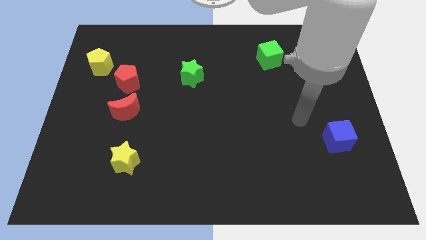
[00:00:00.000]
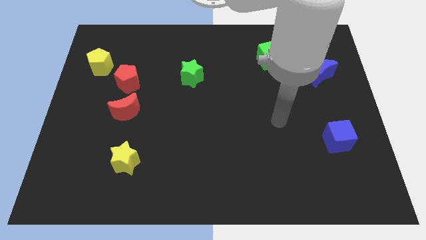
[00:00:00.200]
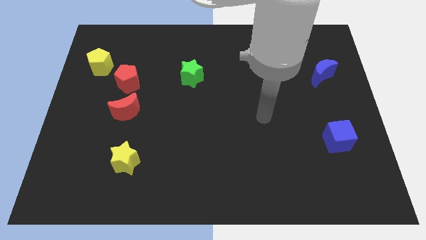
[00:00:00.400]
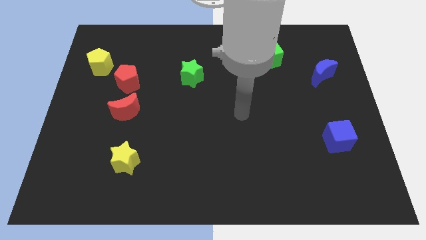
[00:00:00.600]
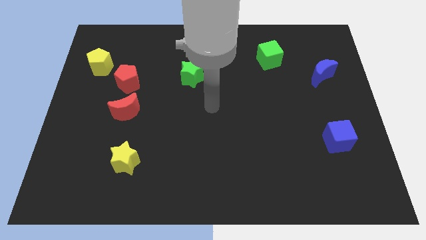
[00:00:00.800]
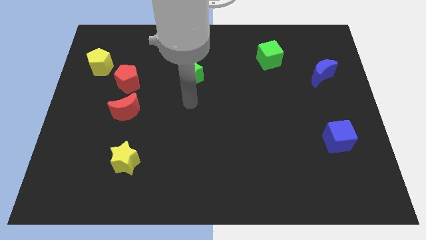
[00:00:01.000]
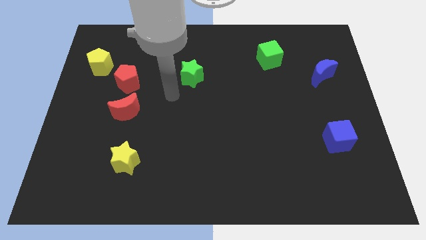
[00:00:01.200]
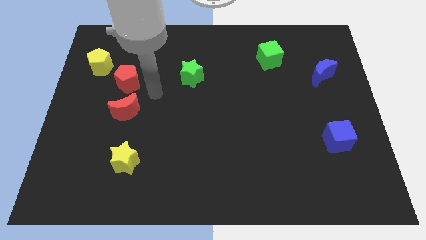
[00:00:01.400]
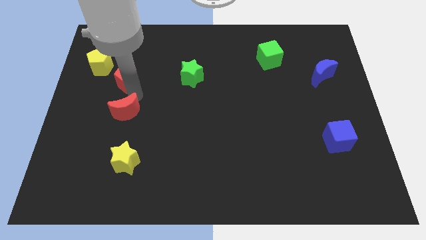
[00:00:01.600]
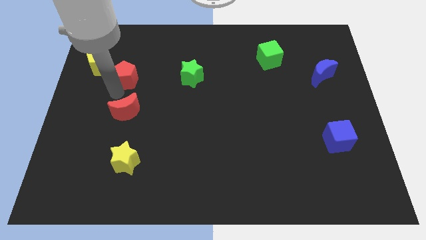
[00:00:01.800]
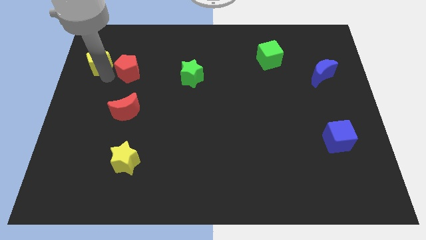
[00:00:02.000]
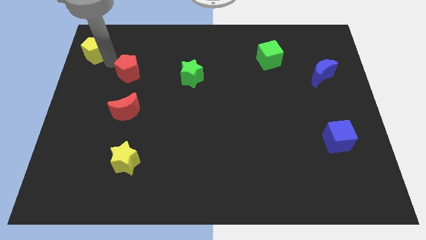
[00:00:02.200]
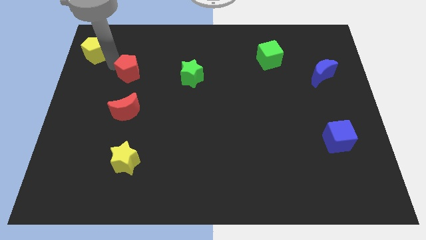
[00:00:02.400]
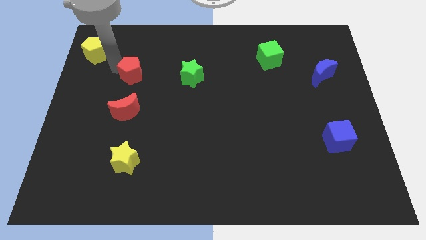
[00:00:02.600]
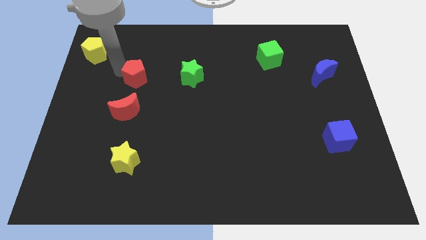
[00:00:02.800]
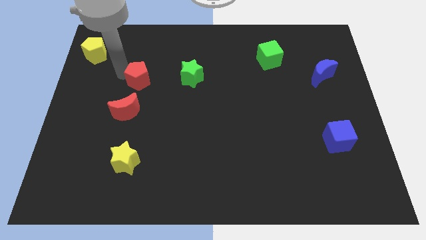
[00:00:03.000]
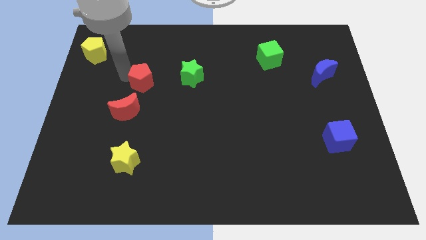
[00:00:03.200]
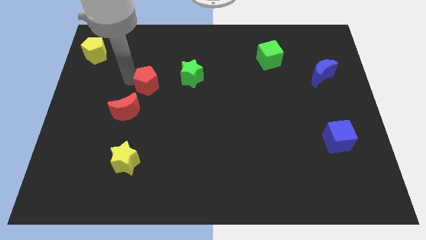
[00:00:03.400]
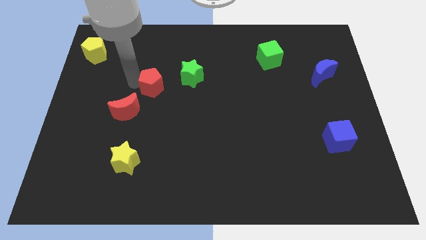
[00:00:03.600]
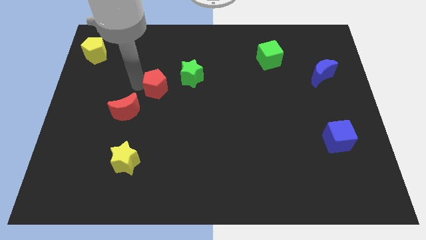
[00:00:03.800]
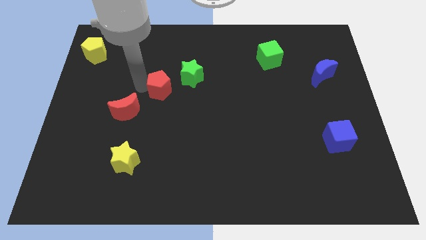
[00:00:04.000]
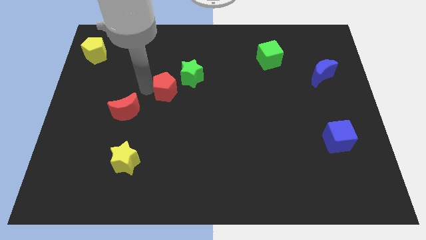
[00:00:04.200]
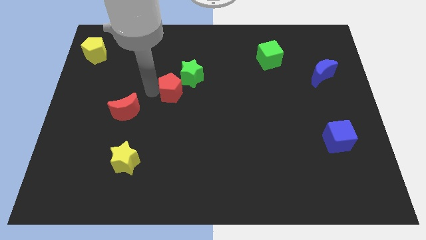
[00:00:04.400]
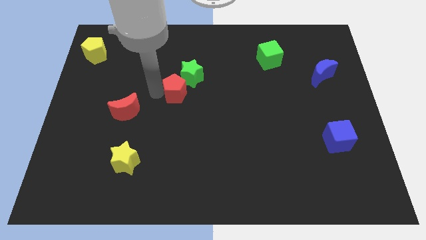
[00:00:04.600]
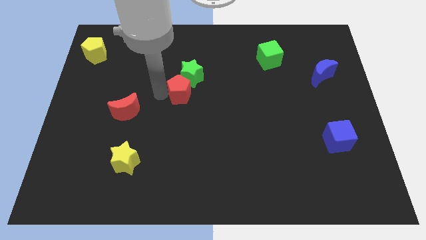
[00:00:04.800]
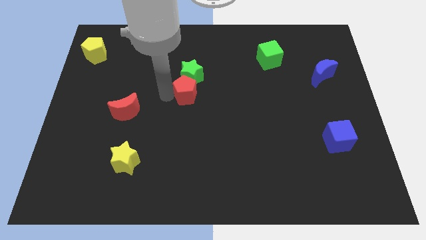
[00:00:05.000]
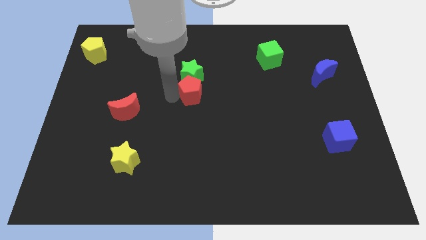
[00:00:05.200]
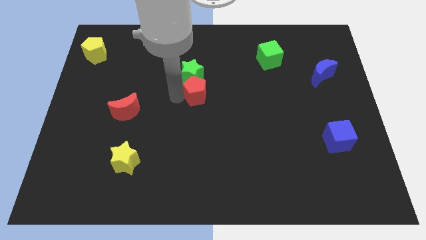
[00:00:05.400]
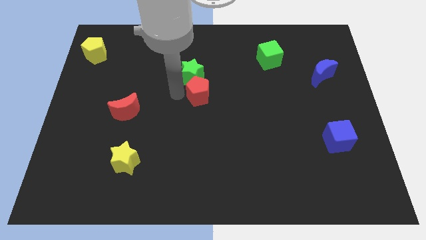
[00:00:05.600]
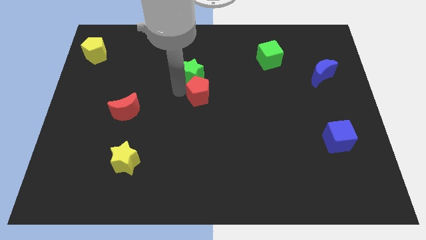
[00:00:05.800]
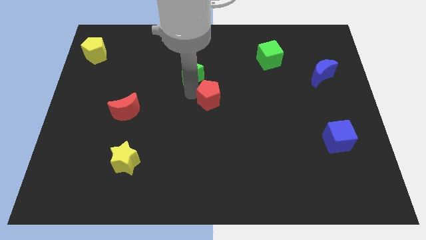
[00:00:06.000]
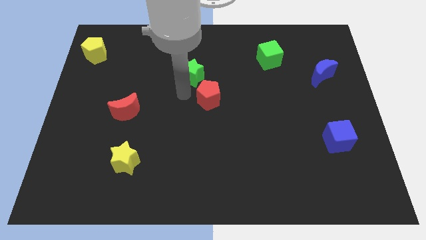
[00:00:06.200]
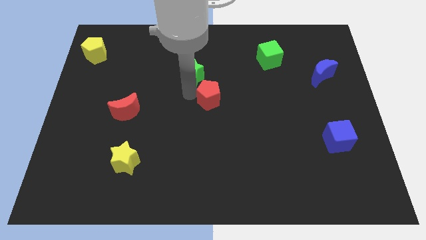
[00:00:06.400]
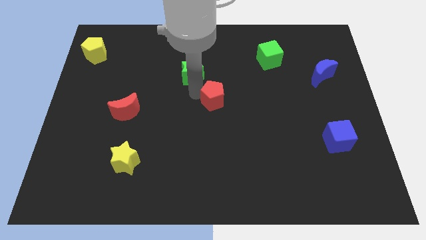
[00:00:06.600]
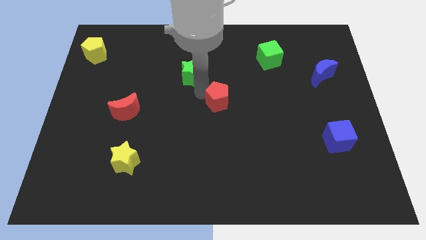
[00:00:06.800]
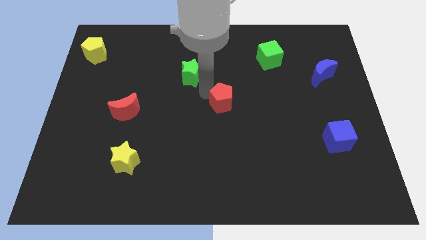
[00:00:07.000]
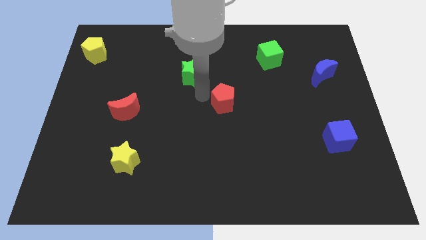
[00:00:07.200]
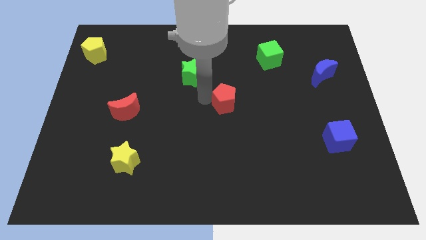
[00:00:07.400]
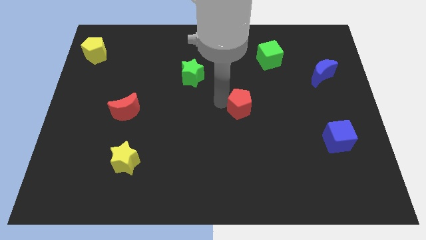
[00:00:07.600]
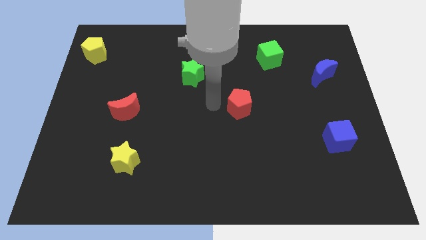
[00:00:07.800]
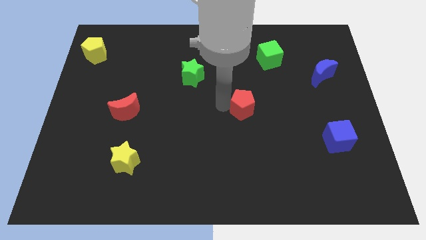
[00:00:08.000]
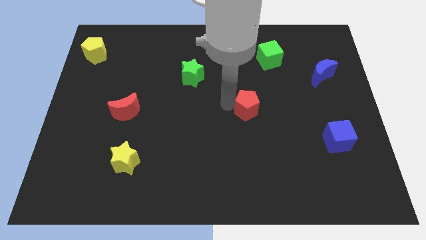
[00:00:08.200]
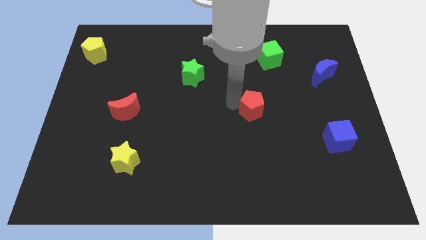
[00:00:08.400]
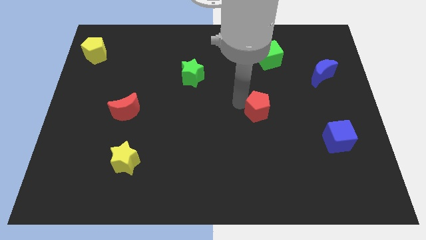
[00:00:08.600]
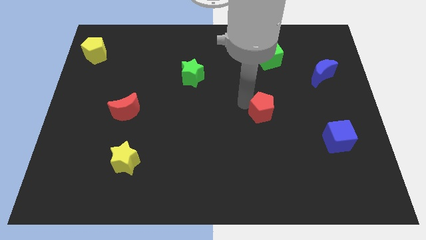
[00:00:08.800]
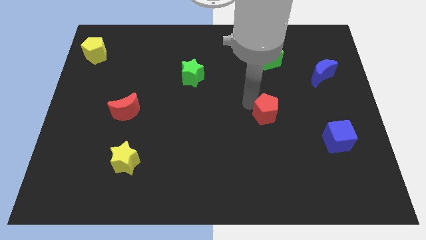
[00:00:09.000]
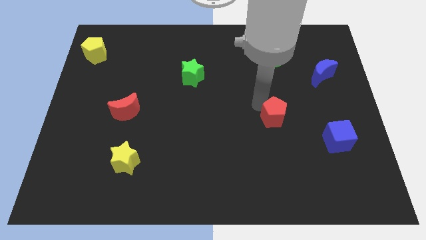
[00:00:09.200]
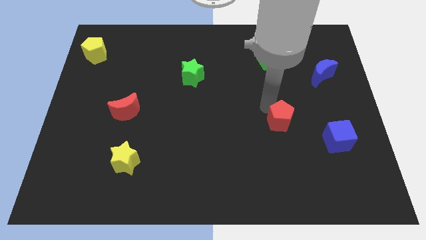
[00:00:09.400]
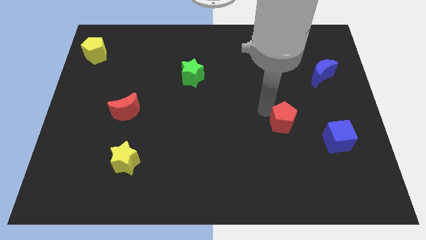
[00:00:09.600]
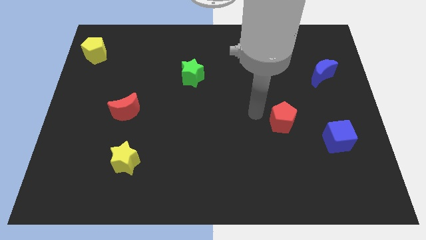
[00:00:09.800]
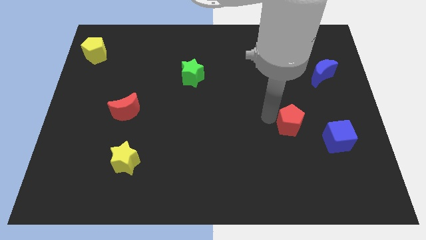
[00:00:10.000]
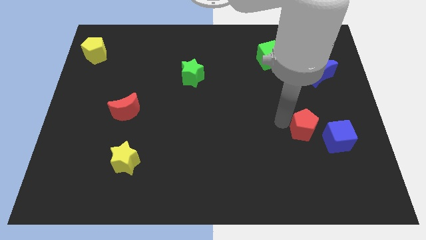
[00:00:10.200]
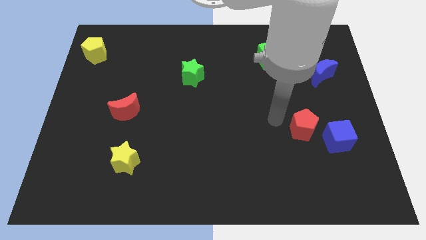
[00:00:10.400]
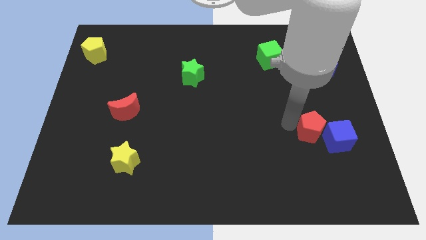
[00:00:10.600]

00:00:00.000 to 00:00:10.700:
slide the red pentagon to the blue cube

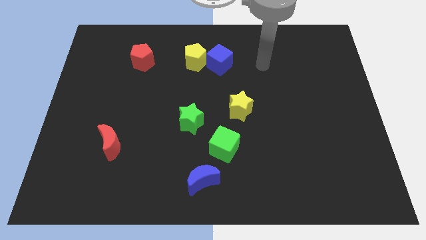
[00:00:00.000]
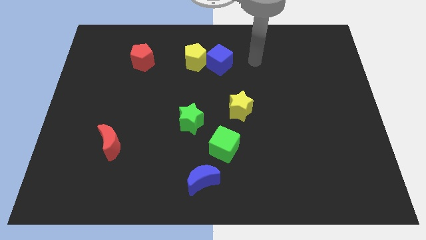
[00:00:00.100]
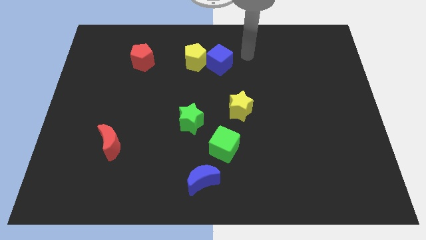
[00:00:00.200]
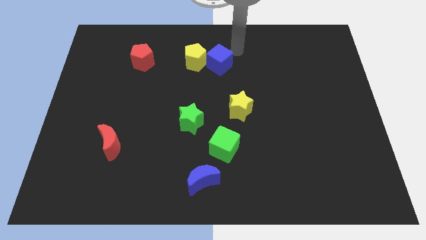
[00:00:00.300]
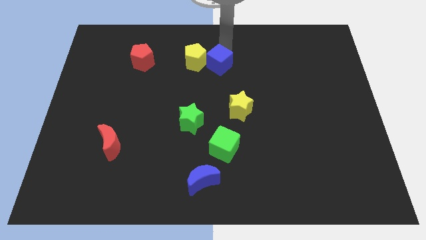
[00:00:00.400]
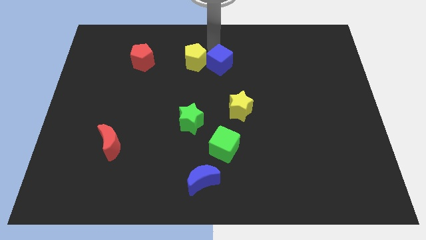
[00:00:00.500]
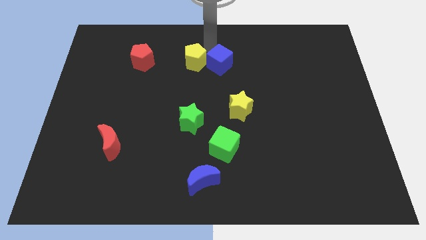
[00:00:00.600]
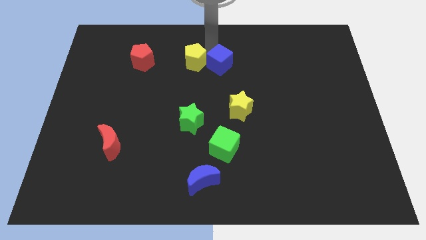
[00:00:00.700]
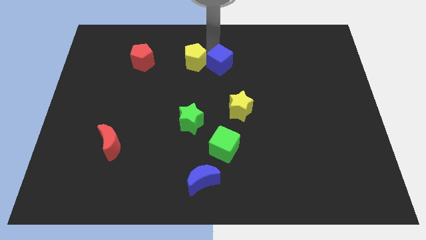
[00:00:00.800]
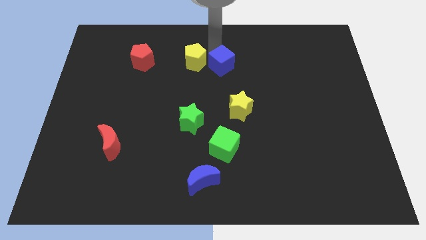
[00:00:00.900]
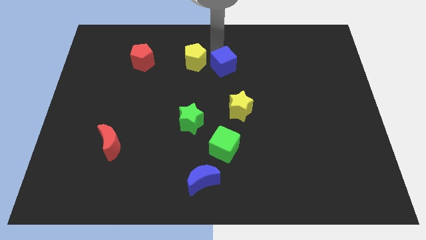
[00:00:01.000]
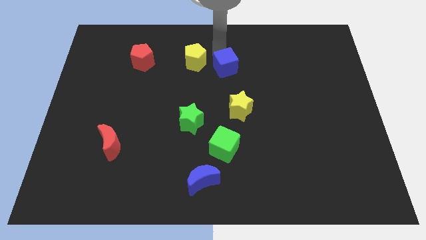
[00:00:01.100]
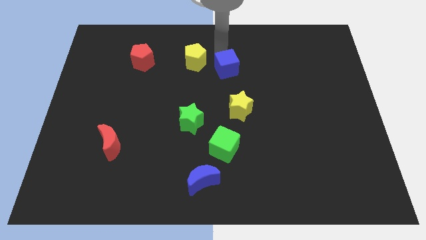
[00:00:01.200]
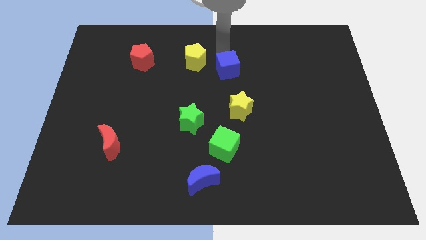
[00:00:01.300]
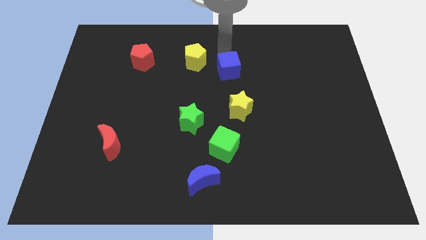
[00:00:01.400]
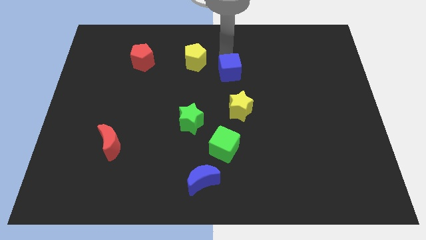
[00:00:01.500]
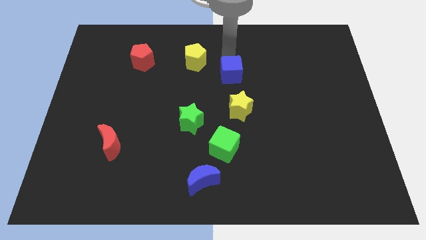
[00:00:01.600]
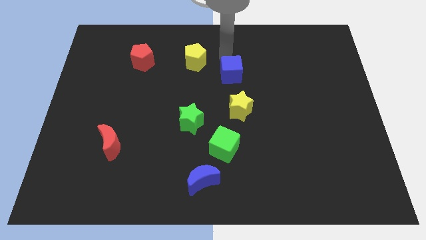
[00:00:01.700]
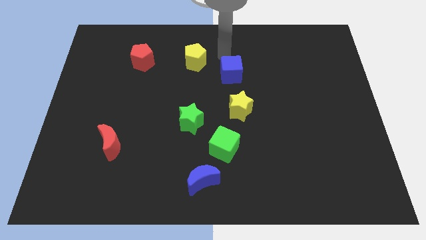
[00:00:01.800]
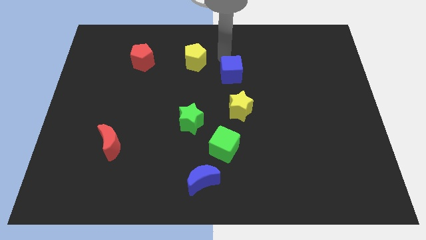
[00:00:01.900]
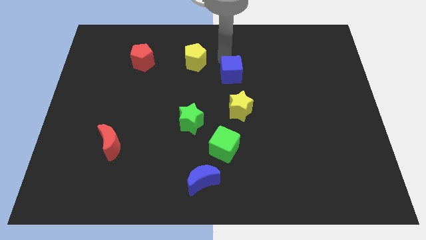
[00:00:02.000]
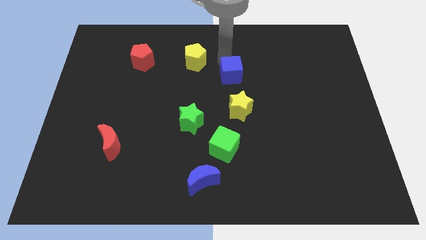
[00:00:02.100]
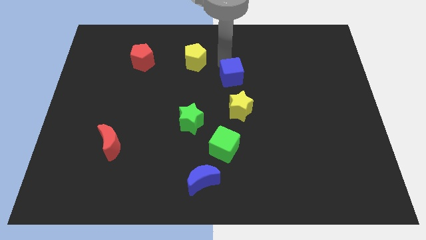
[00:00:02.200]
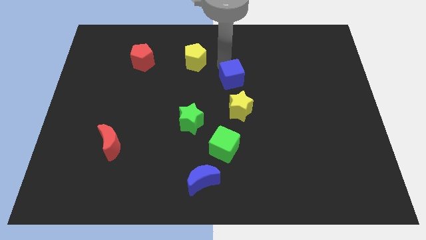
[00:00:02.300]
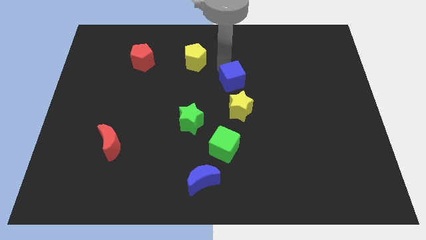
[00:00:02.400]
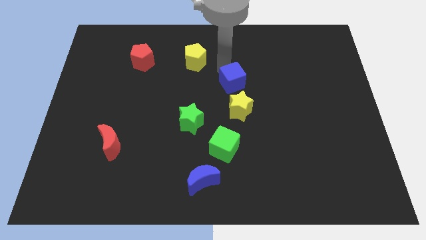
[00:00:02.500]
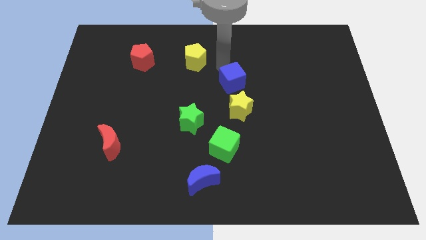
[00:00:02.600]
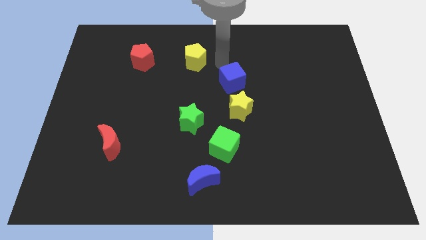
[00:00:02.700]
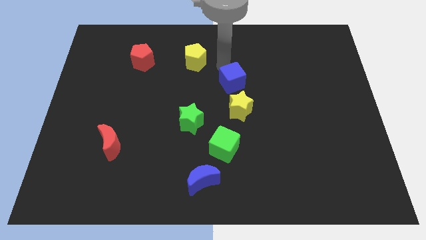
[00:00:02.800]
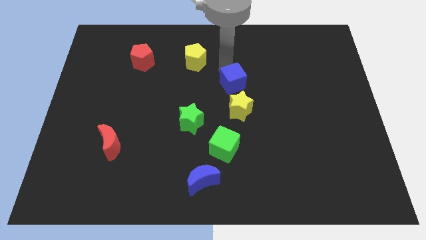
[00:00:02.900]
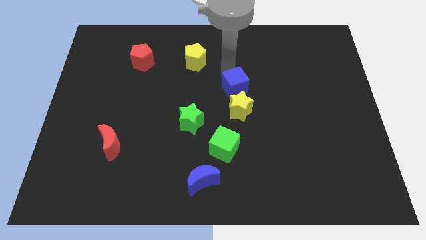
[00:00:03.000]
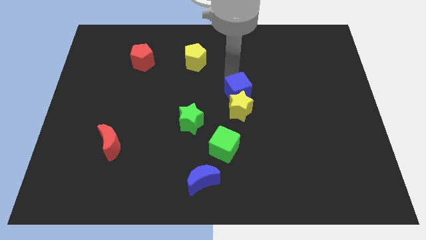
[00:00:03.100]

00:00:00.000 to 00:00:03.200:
push the blue cube towards the yellow star
